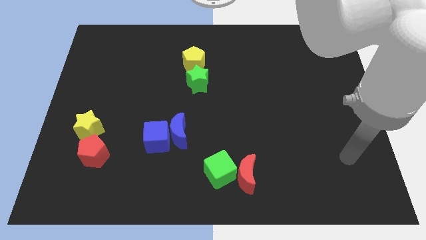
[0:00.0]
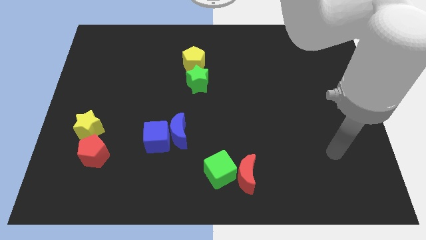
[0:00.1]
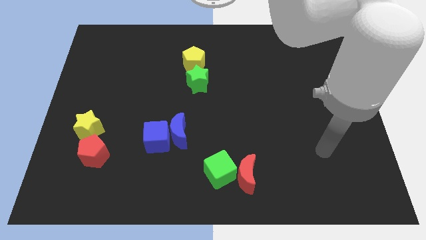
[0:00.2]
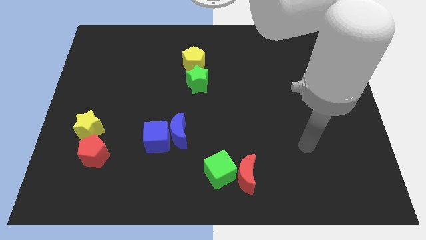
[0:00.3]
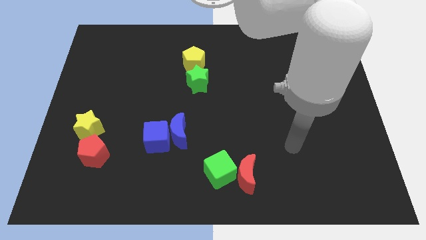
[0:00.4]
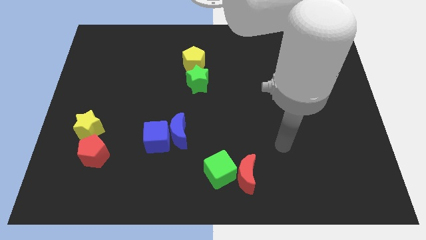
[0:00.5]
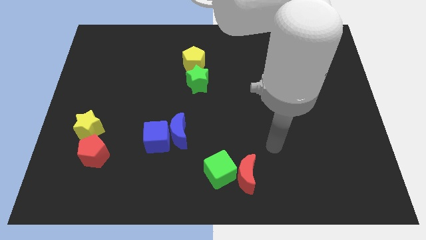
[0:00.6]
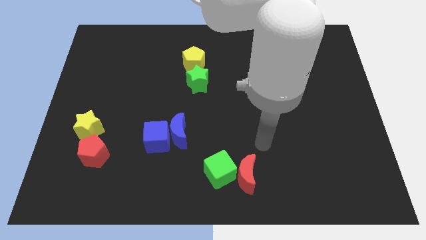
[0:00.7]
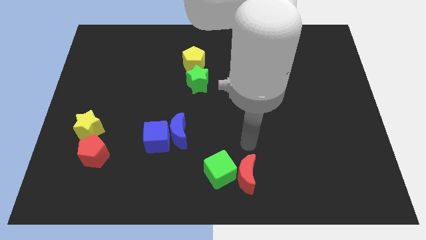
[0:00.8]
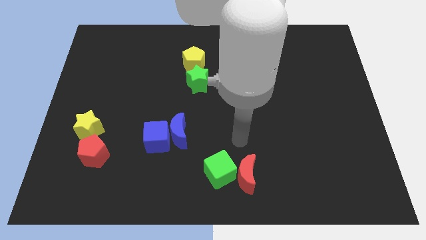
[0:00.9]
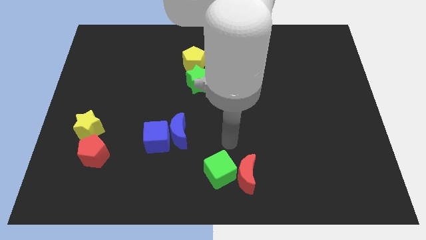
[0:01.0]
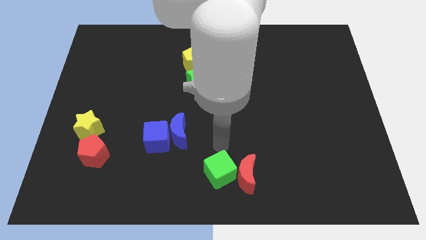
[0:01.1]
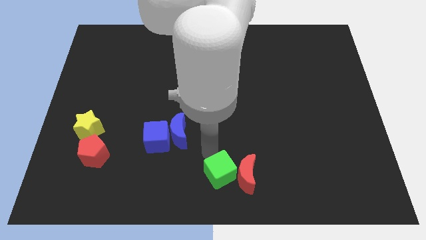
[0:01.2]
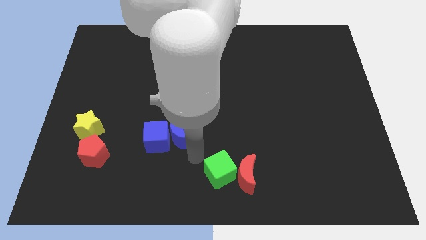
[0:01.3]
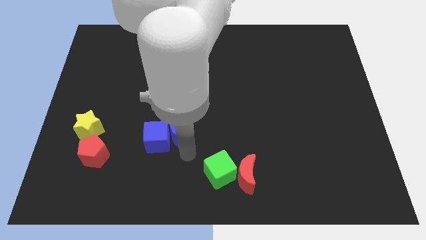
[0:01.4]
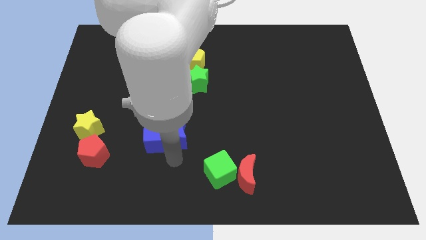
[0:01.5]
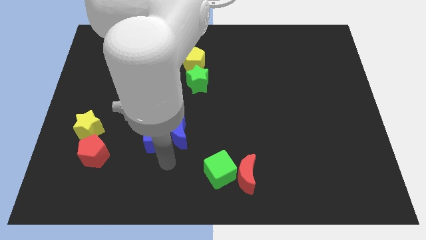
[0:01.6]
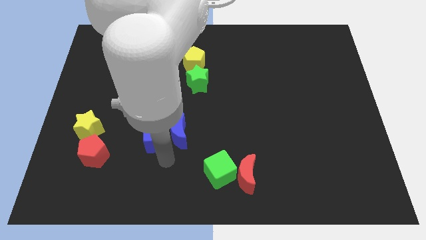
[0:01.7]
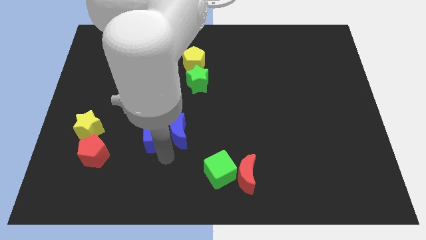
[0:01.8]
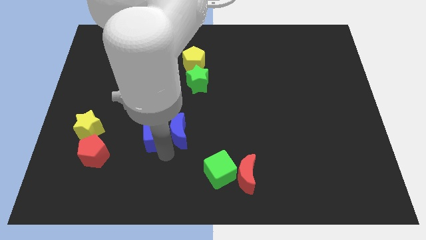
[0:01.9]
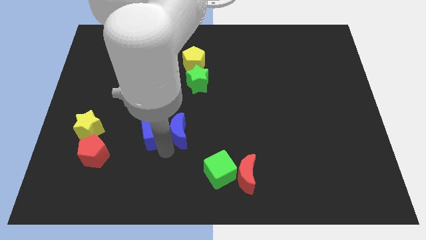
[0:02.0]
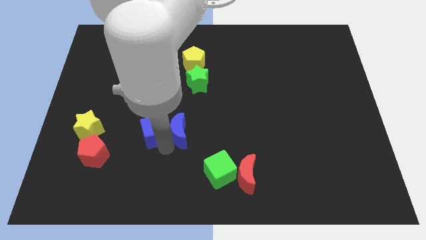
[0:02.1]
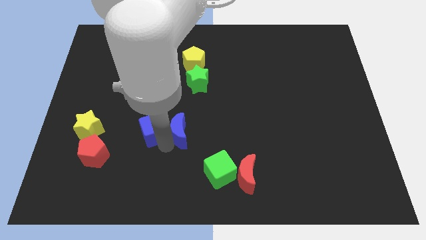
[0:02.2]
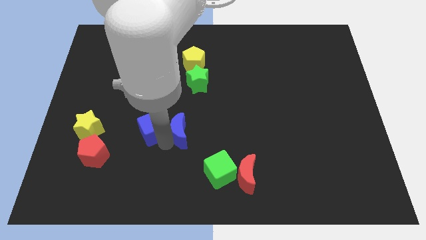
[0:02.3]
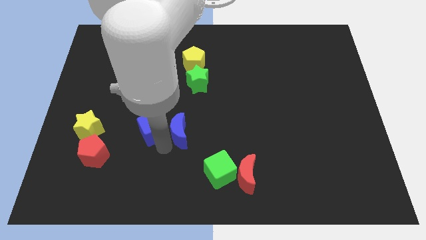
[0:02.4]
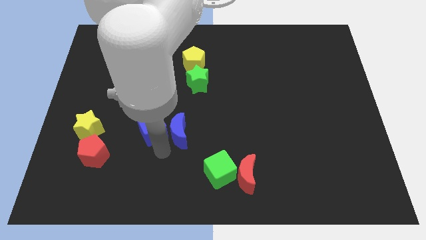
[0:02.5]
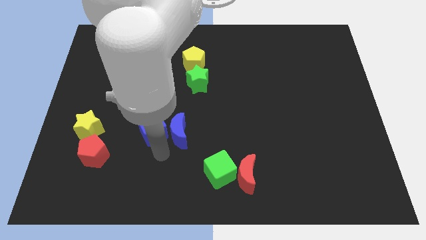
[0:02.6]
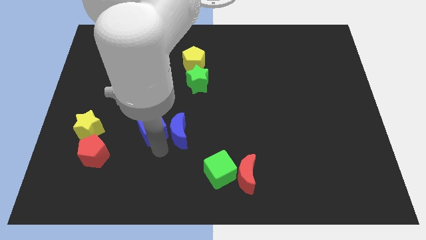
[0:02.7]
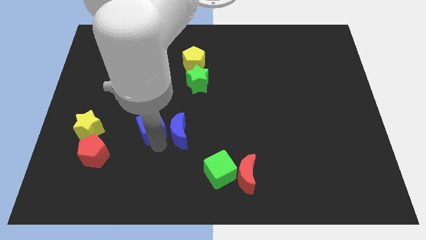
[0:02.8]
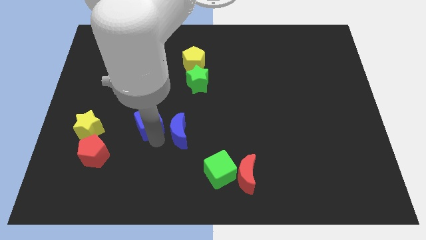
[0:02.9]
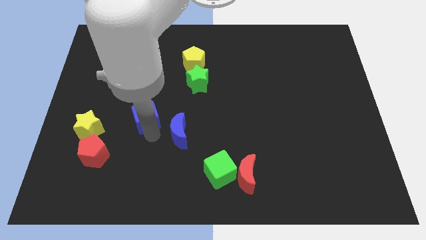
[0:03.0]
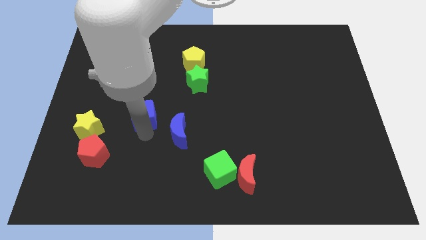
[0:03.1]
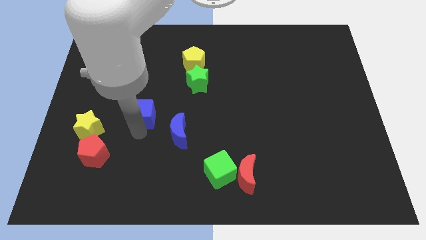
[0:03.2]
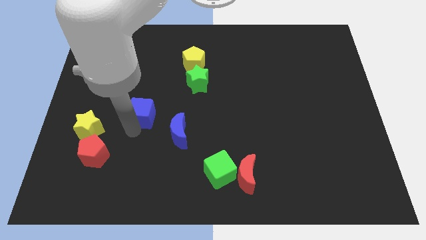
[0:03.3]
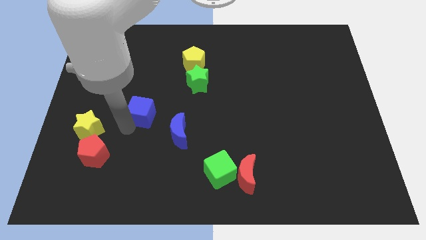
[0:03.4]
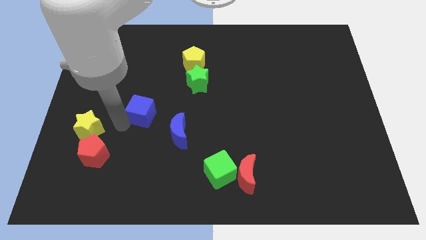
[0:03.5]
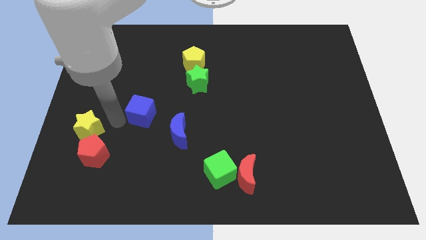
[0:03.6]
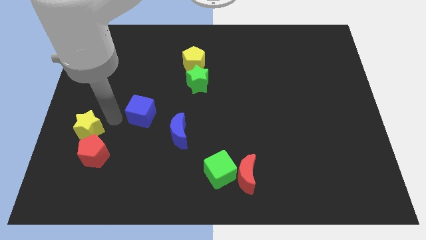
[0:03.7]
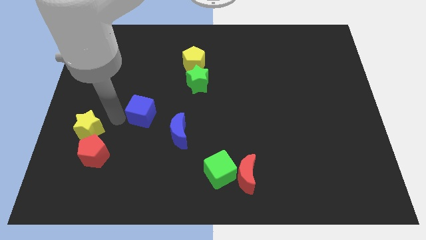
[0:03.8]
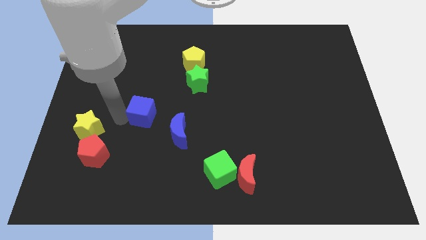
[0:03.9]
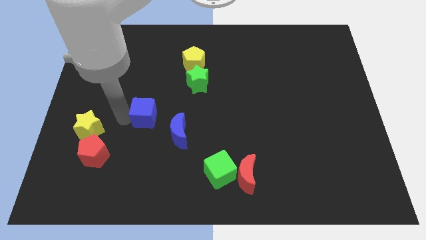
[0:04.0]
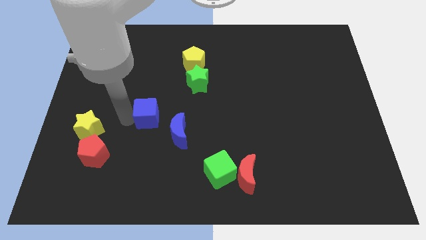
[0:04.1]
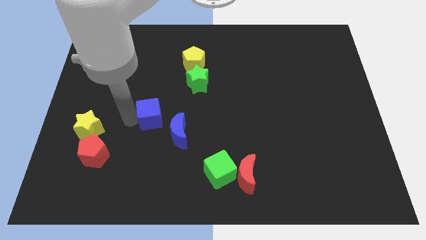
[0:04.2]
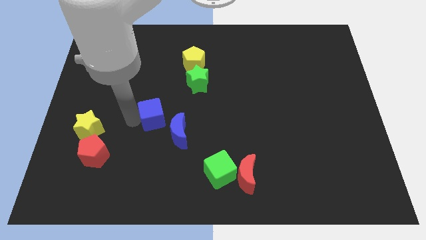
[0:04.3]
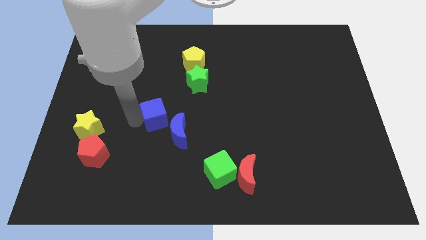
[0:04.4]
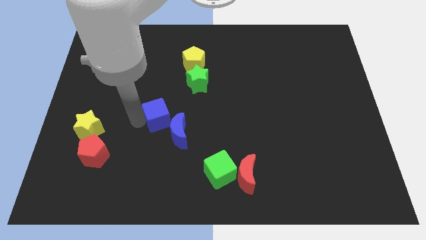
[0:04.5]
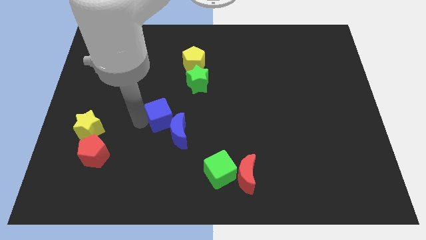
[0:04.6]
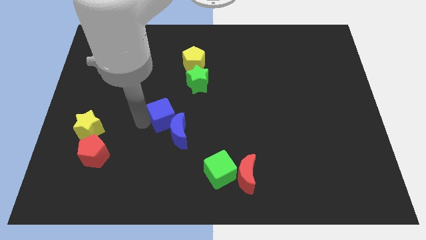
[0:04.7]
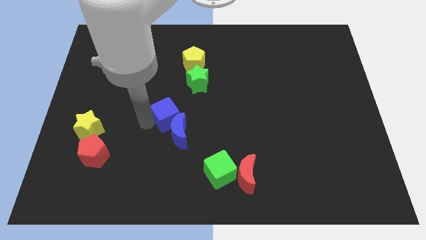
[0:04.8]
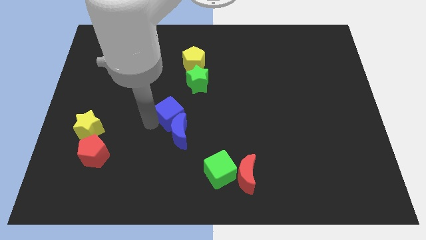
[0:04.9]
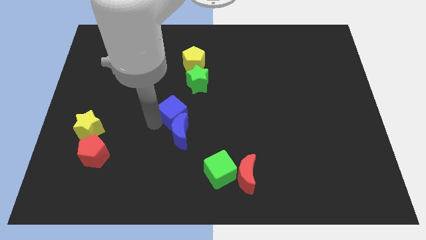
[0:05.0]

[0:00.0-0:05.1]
slightly slide the blue cube diagonally upwards and to the right

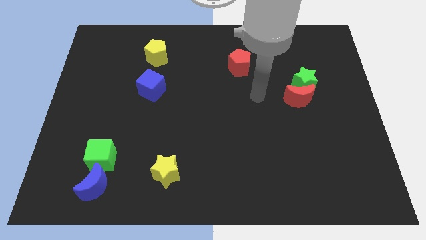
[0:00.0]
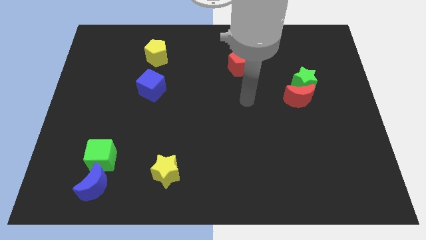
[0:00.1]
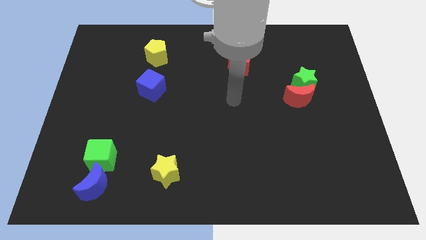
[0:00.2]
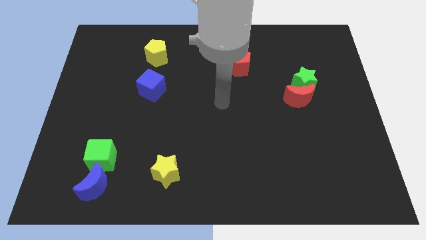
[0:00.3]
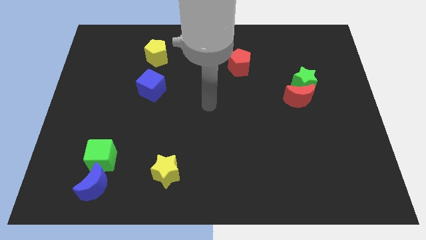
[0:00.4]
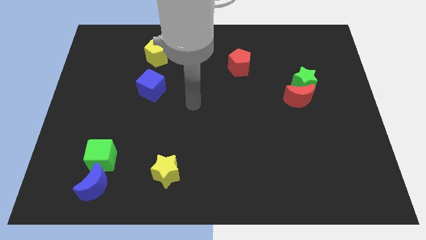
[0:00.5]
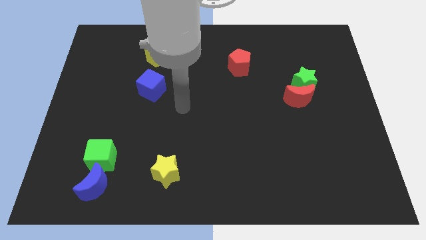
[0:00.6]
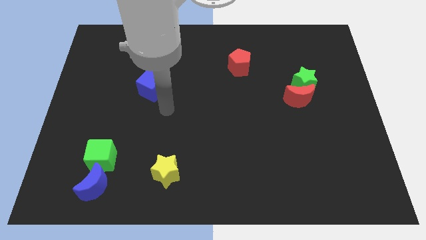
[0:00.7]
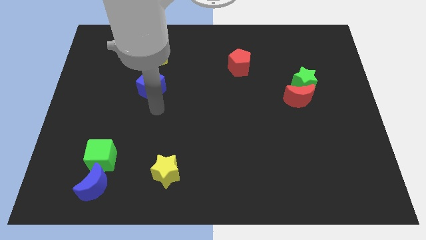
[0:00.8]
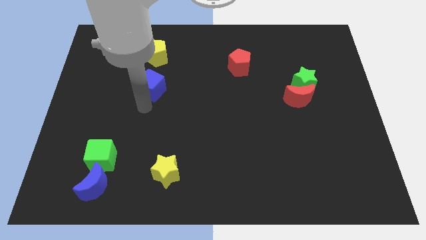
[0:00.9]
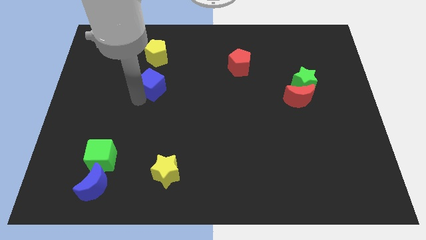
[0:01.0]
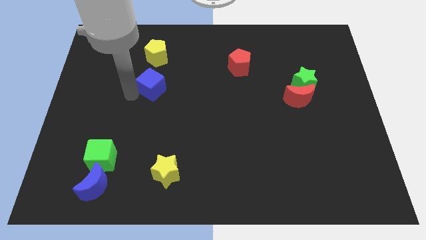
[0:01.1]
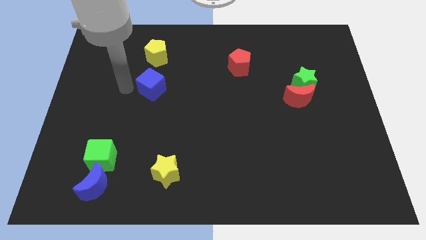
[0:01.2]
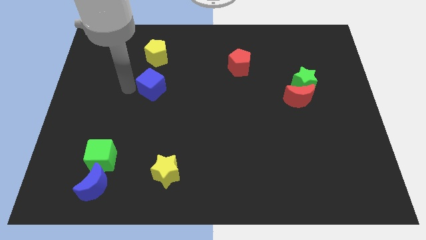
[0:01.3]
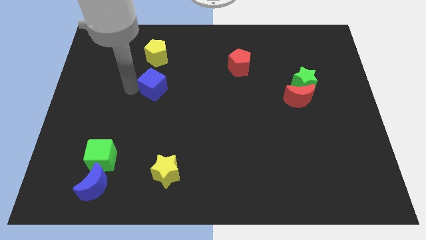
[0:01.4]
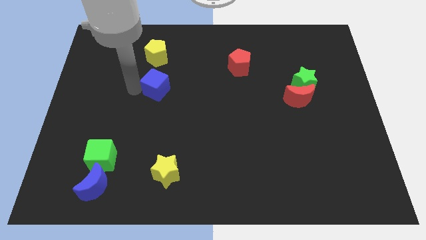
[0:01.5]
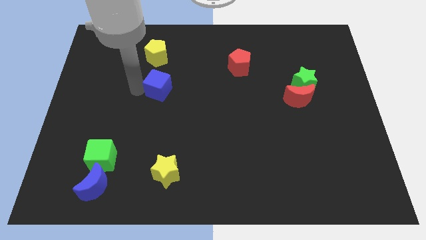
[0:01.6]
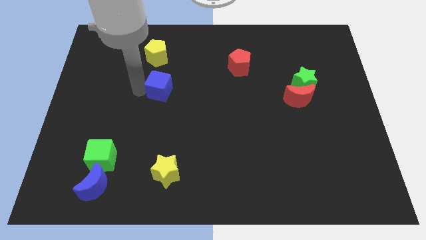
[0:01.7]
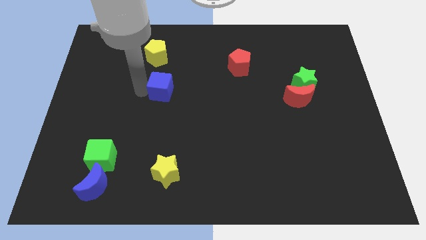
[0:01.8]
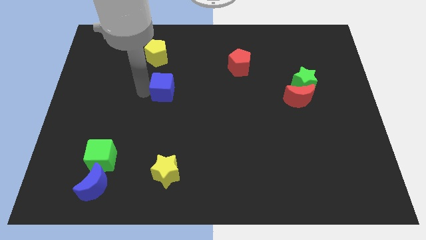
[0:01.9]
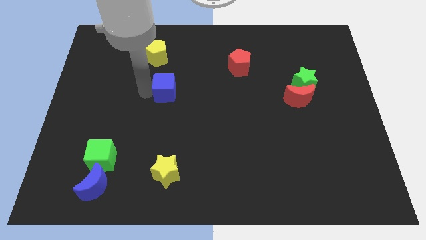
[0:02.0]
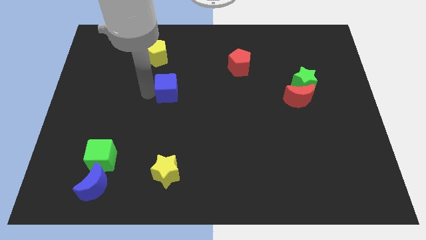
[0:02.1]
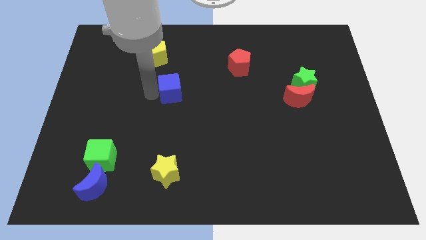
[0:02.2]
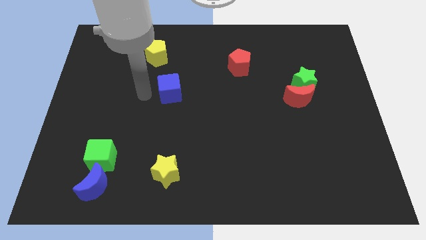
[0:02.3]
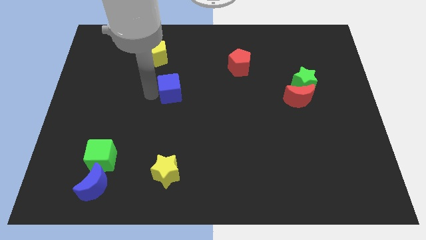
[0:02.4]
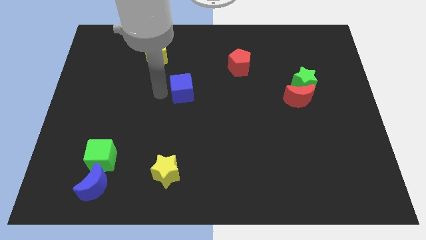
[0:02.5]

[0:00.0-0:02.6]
slightly push the blue cube right

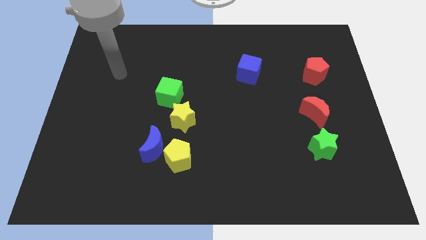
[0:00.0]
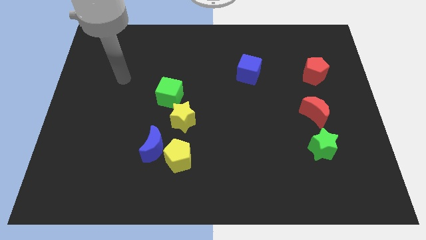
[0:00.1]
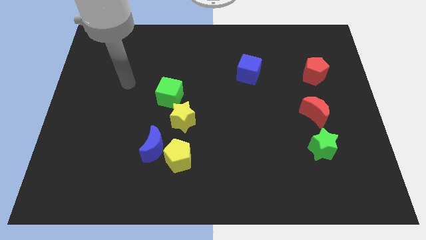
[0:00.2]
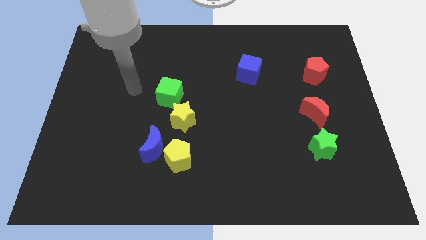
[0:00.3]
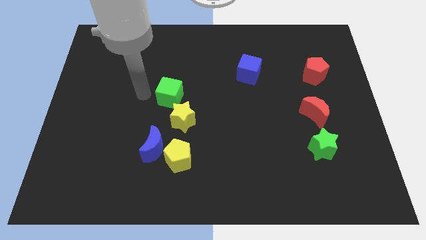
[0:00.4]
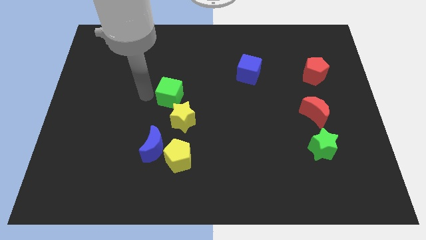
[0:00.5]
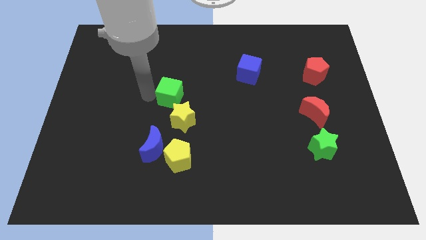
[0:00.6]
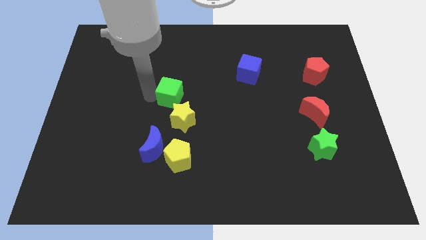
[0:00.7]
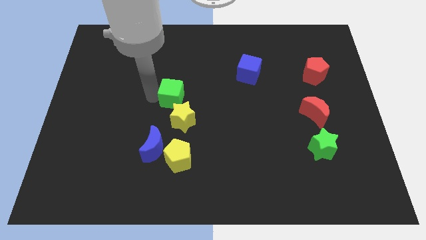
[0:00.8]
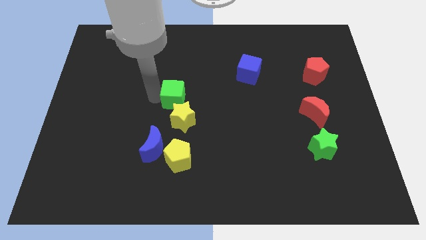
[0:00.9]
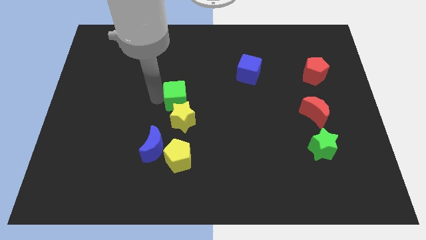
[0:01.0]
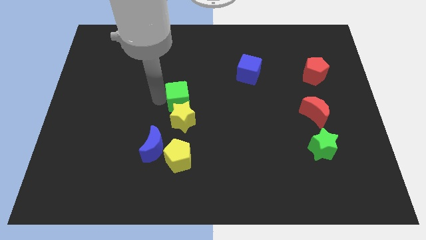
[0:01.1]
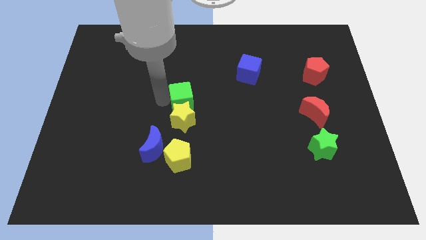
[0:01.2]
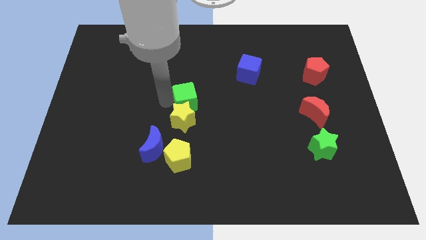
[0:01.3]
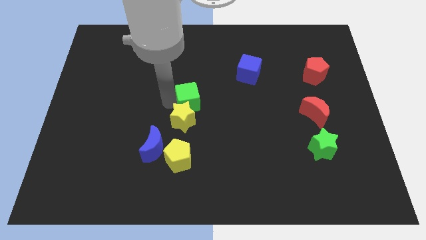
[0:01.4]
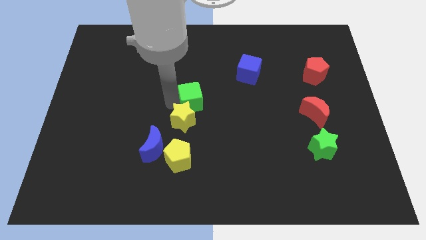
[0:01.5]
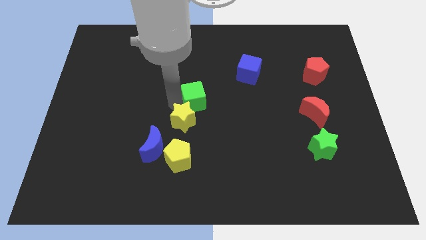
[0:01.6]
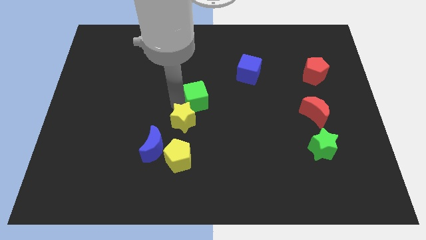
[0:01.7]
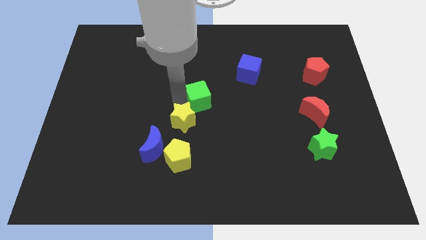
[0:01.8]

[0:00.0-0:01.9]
slightly push the green cube to the right
